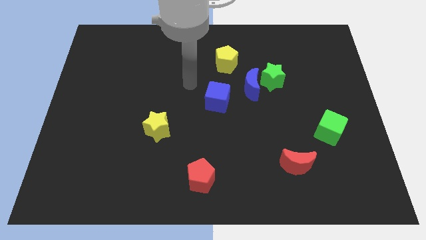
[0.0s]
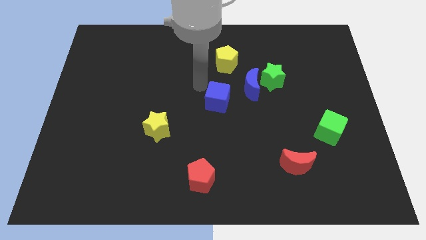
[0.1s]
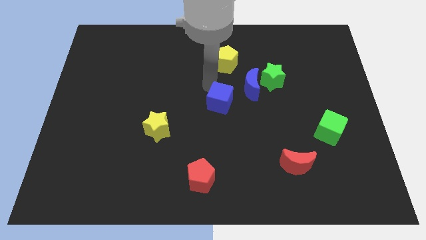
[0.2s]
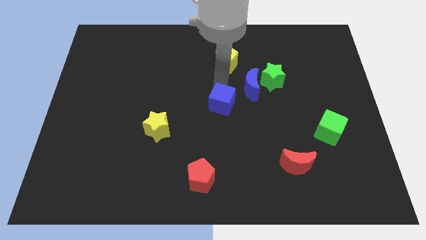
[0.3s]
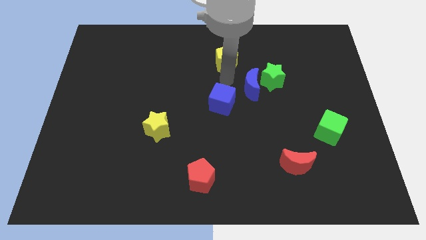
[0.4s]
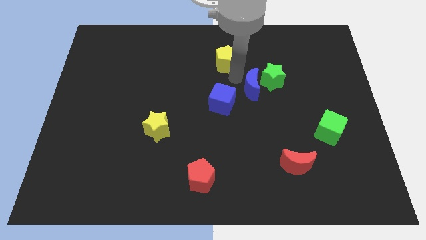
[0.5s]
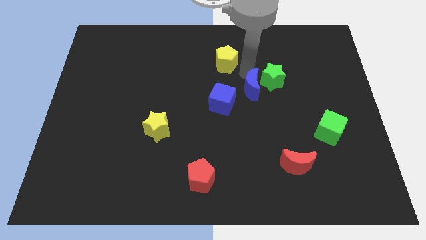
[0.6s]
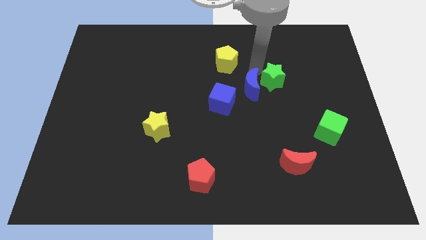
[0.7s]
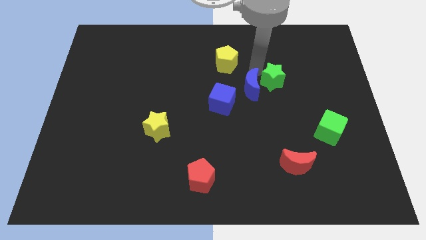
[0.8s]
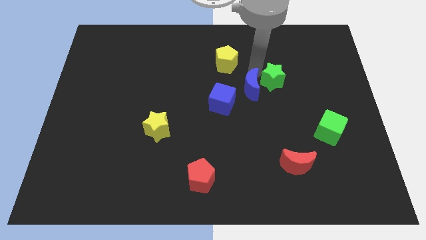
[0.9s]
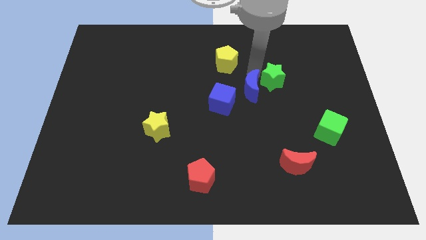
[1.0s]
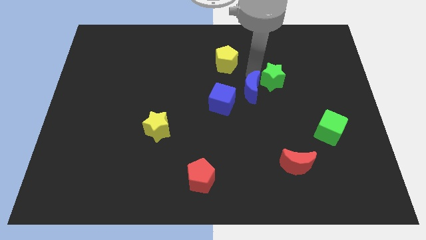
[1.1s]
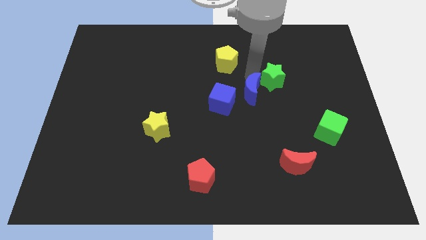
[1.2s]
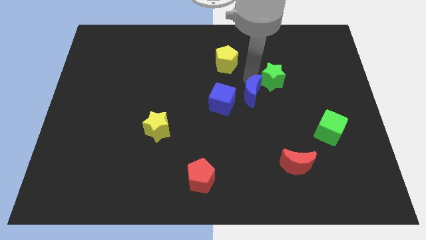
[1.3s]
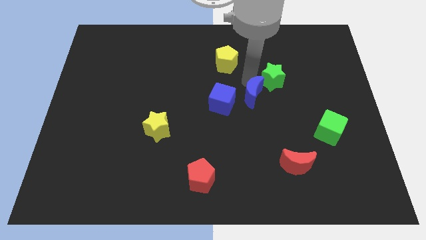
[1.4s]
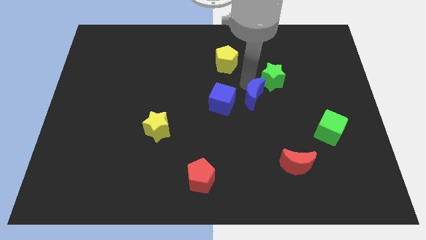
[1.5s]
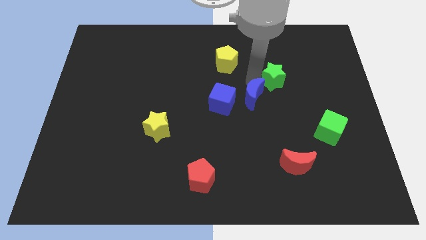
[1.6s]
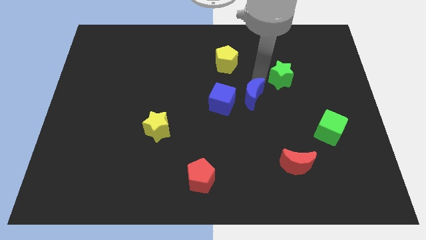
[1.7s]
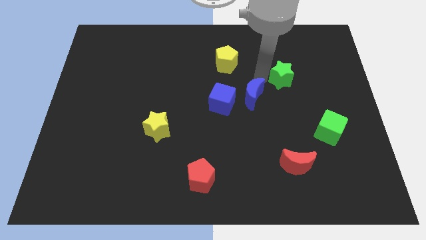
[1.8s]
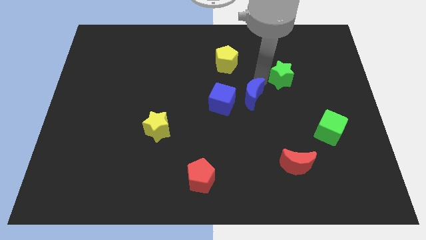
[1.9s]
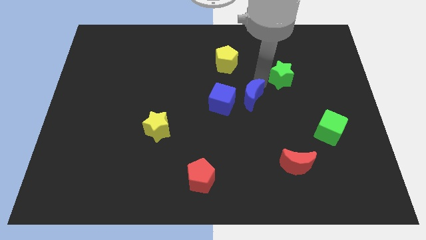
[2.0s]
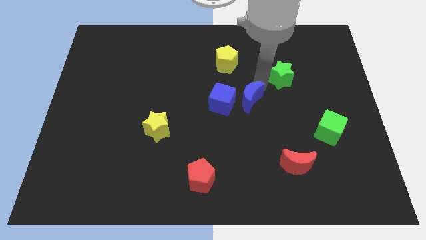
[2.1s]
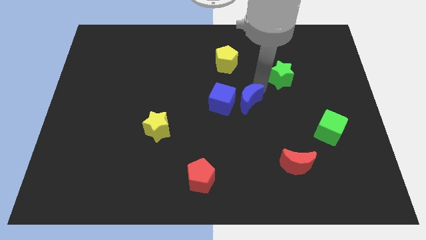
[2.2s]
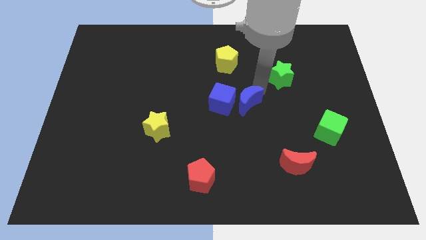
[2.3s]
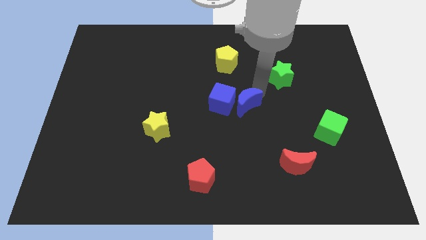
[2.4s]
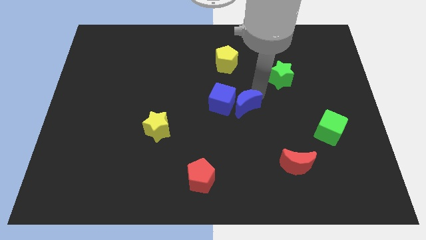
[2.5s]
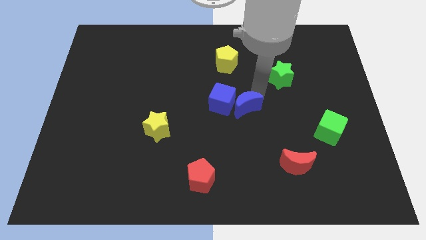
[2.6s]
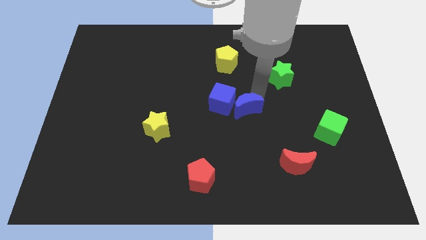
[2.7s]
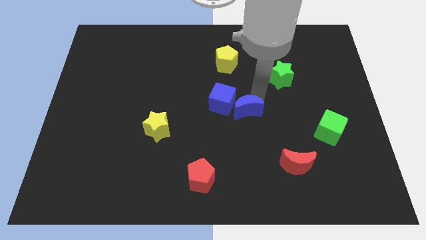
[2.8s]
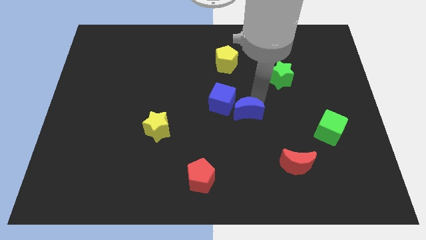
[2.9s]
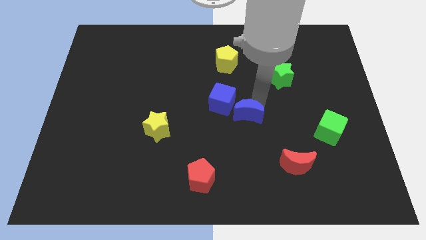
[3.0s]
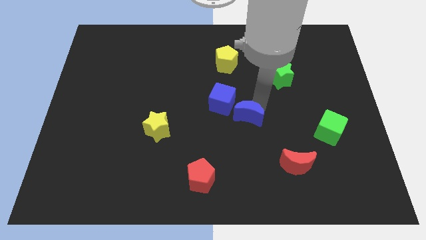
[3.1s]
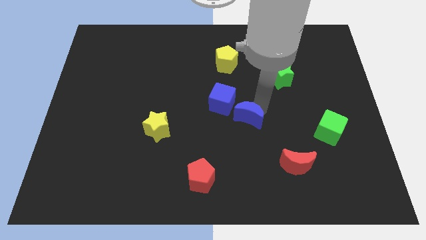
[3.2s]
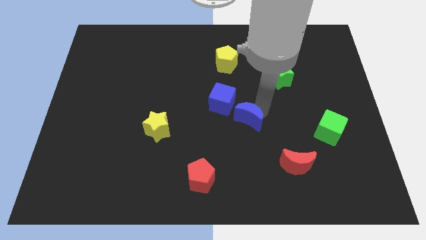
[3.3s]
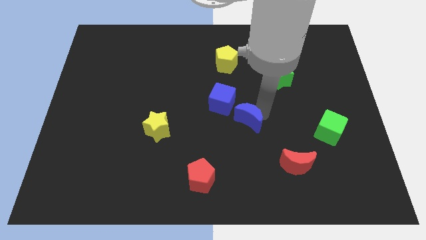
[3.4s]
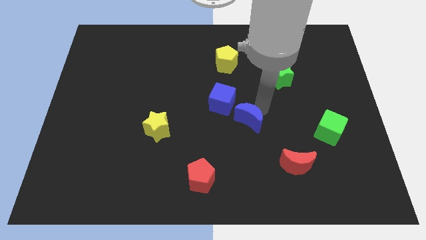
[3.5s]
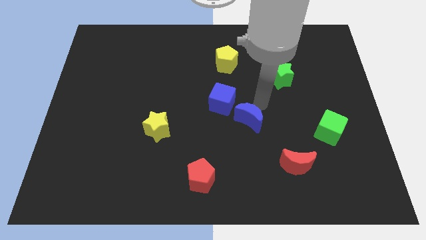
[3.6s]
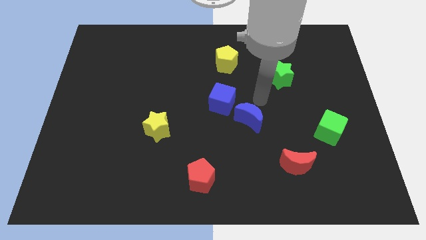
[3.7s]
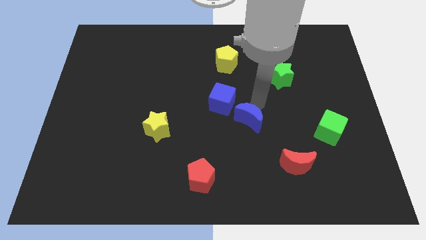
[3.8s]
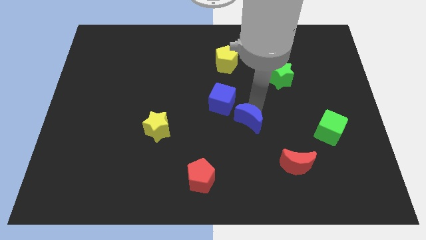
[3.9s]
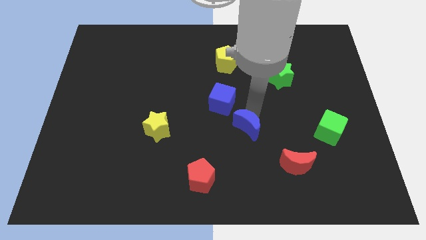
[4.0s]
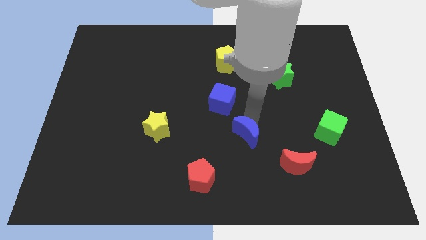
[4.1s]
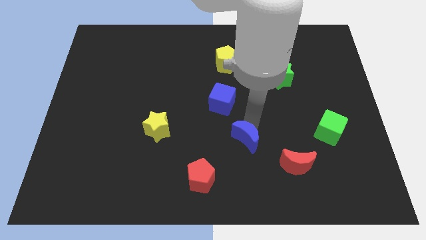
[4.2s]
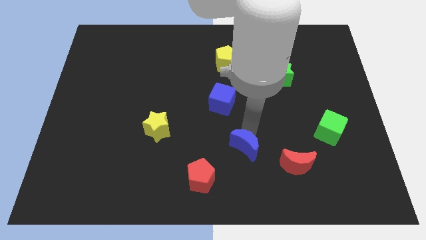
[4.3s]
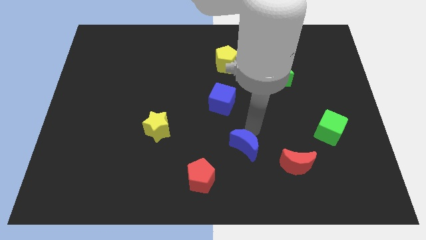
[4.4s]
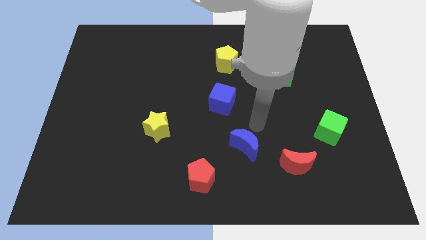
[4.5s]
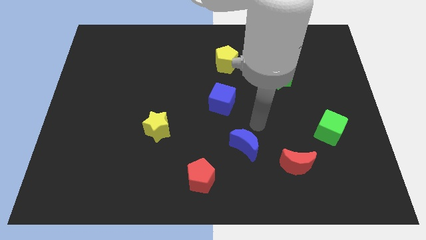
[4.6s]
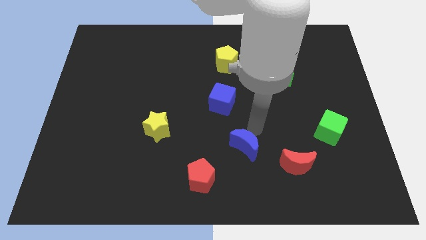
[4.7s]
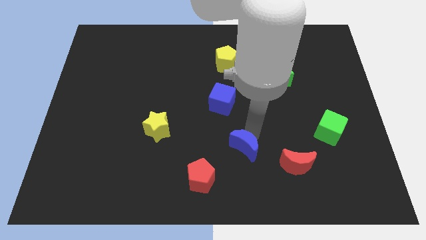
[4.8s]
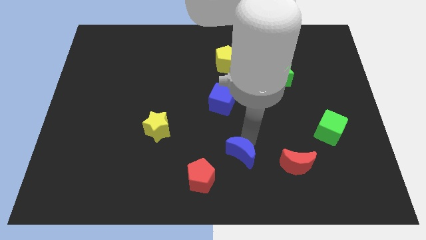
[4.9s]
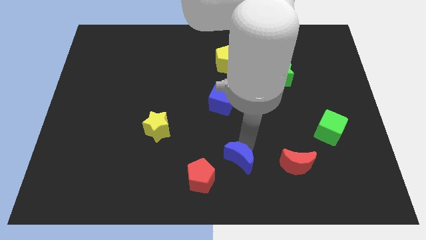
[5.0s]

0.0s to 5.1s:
slide the blue moon to the bottom

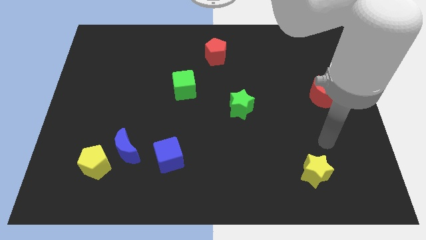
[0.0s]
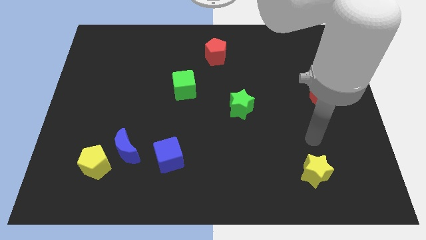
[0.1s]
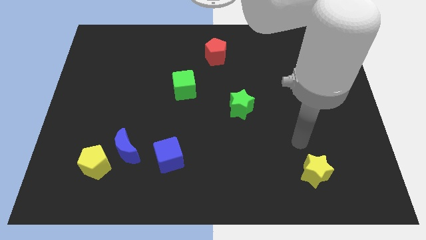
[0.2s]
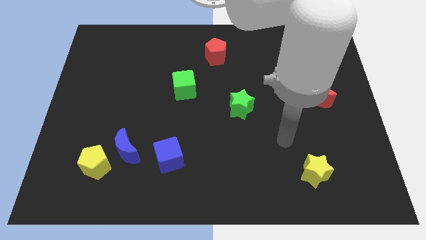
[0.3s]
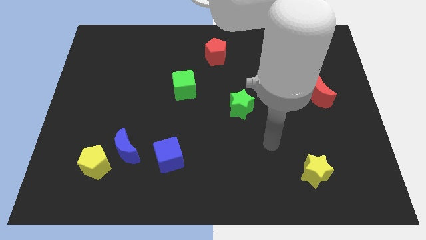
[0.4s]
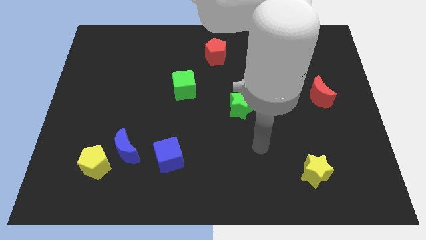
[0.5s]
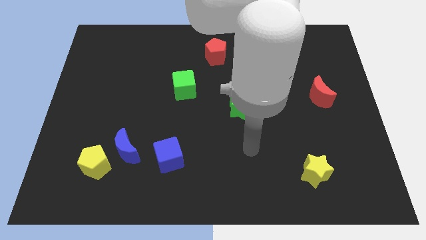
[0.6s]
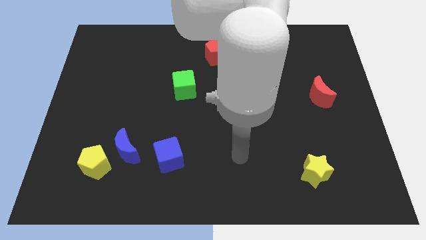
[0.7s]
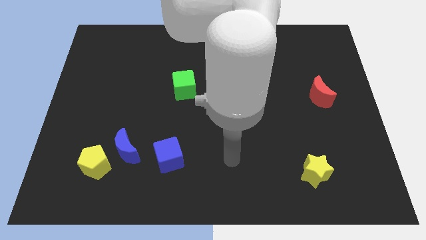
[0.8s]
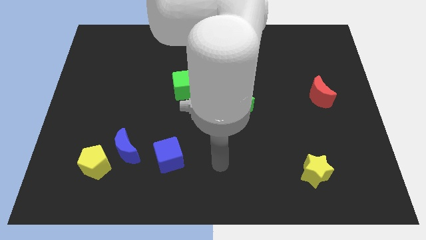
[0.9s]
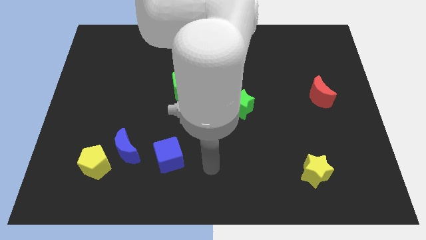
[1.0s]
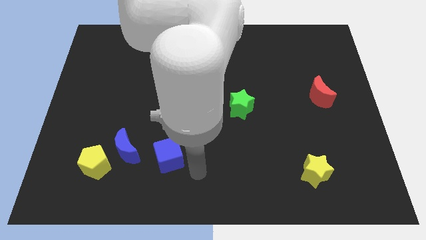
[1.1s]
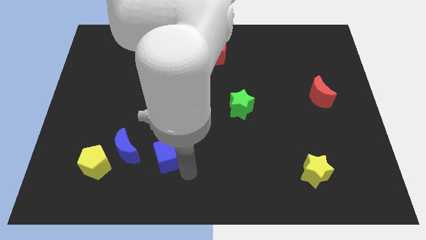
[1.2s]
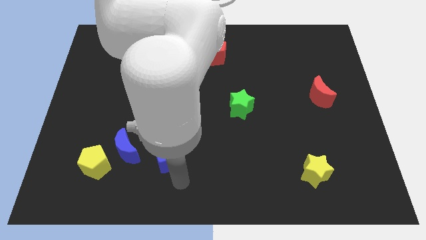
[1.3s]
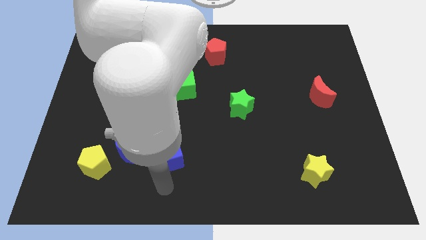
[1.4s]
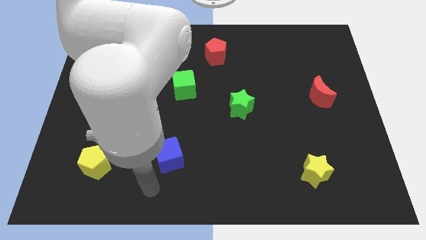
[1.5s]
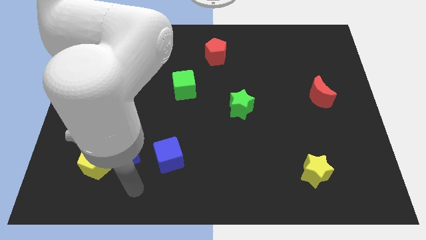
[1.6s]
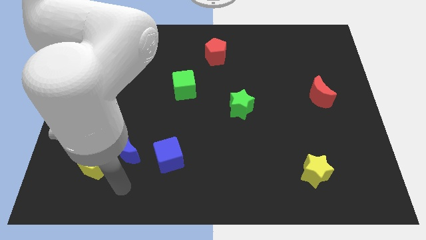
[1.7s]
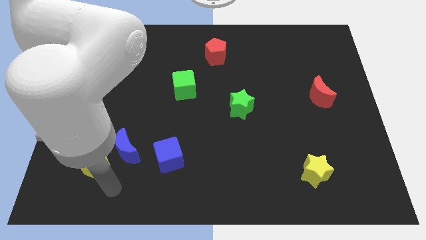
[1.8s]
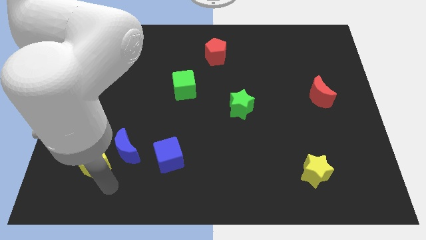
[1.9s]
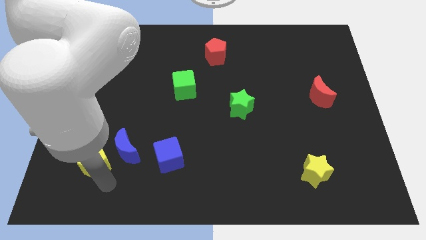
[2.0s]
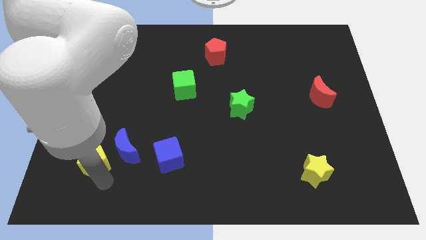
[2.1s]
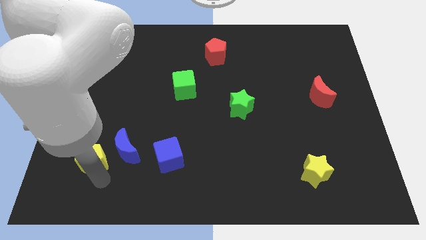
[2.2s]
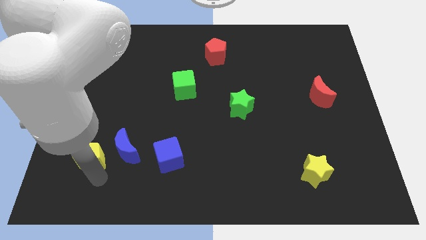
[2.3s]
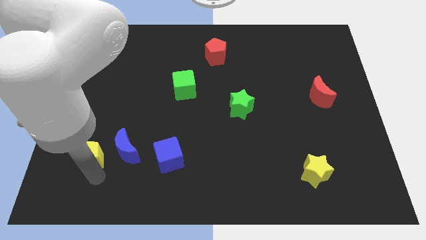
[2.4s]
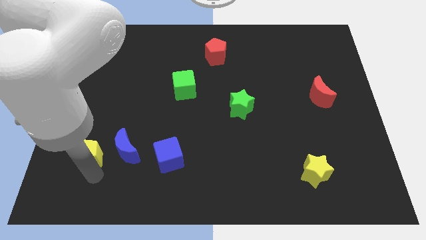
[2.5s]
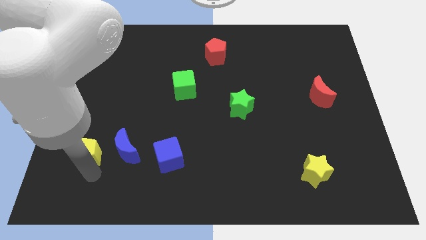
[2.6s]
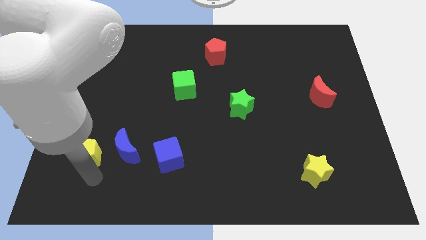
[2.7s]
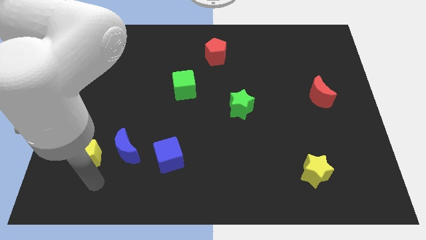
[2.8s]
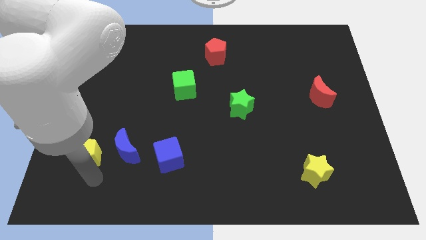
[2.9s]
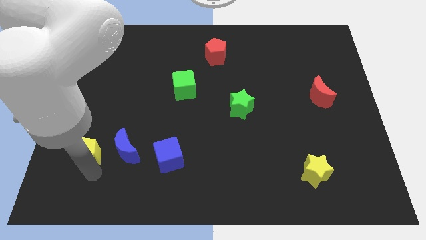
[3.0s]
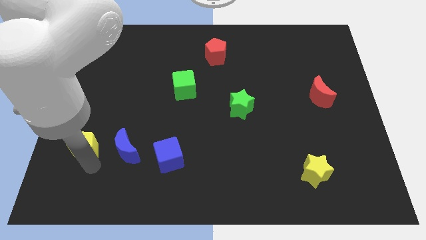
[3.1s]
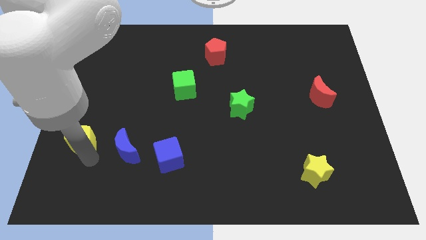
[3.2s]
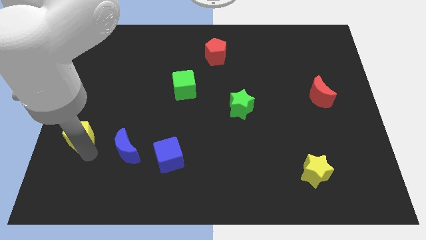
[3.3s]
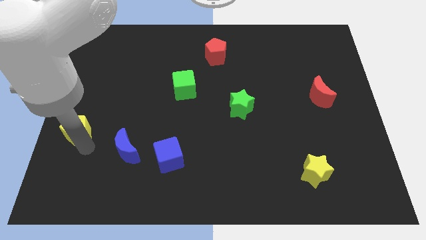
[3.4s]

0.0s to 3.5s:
move the yellow pentagon to the left side
